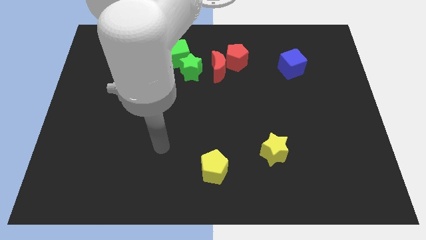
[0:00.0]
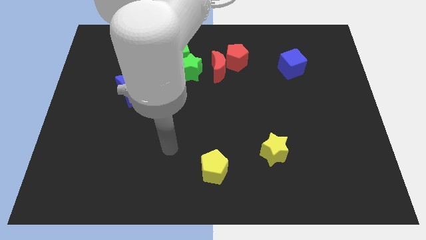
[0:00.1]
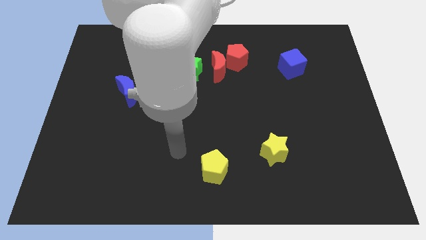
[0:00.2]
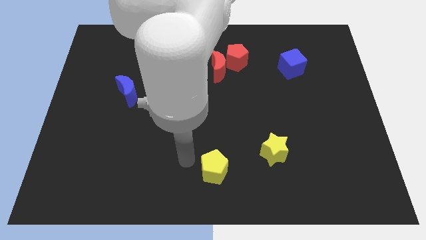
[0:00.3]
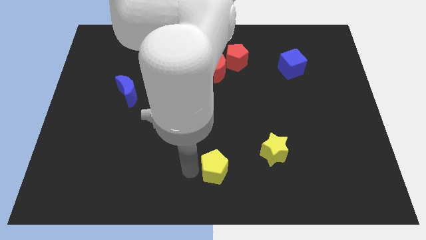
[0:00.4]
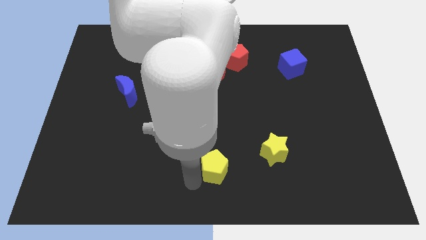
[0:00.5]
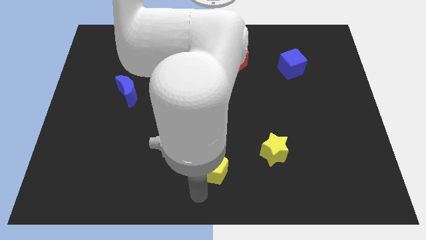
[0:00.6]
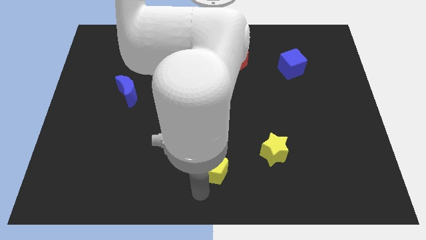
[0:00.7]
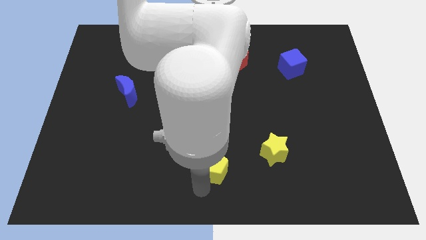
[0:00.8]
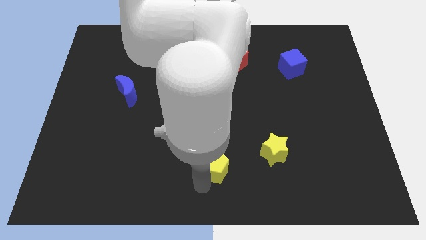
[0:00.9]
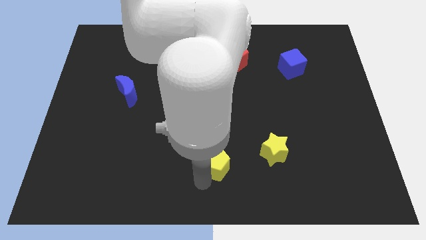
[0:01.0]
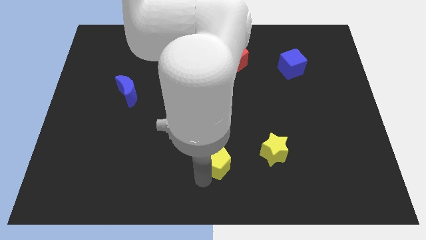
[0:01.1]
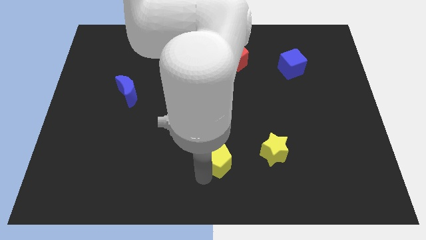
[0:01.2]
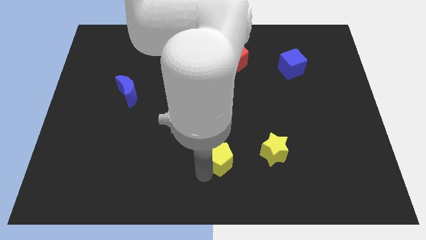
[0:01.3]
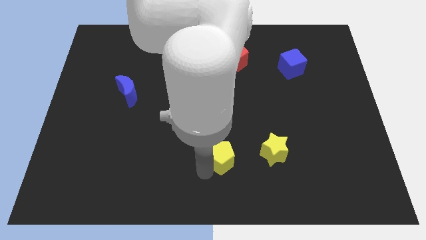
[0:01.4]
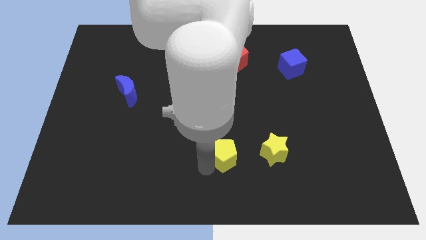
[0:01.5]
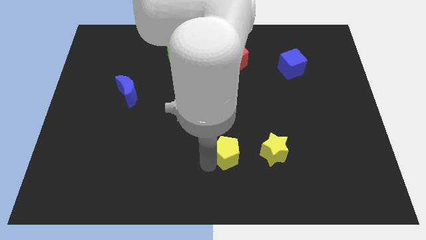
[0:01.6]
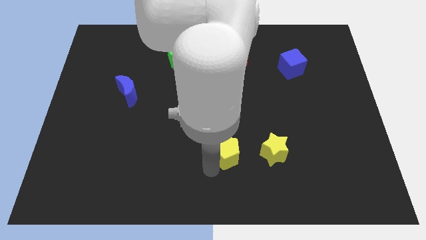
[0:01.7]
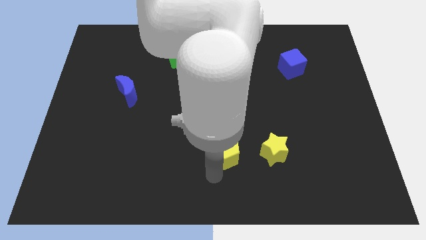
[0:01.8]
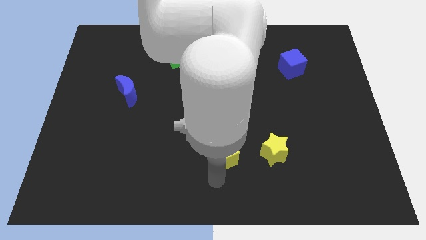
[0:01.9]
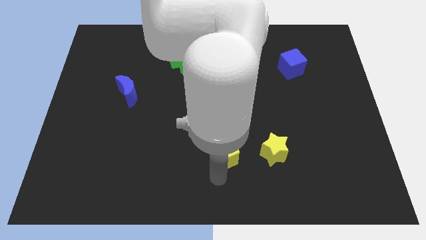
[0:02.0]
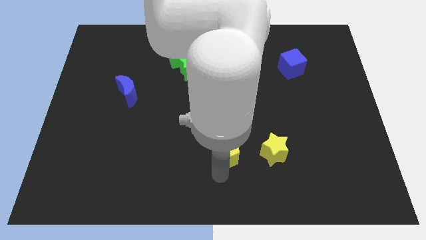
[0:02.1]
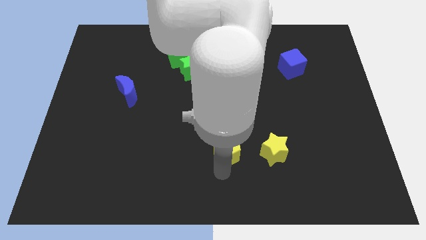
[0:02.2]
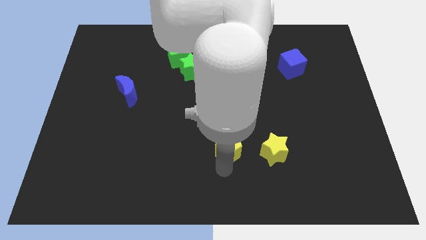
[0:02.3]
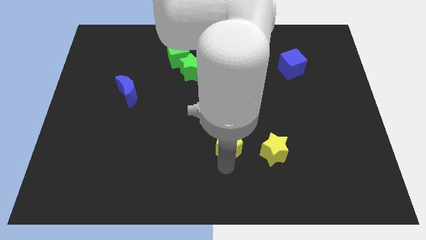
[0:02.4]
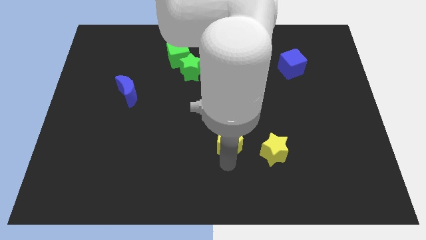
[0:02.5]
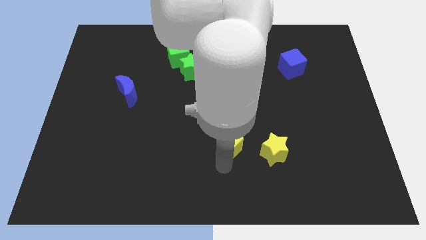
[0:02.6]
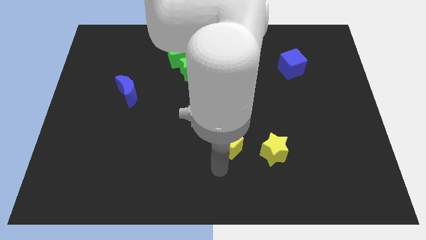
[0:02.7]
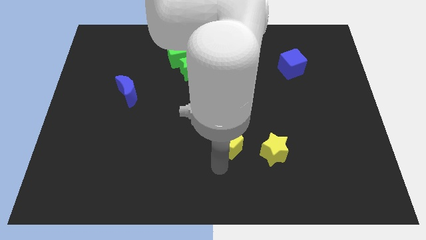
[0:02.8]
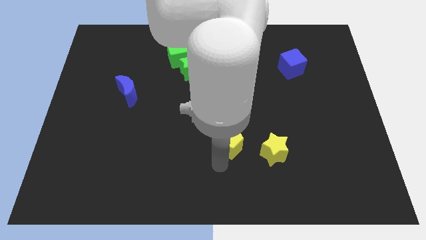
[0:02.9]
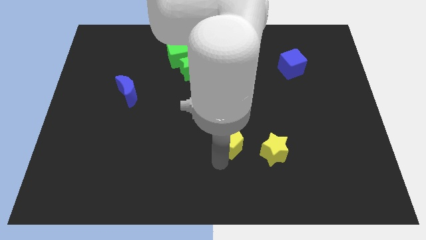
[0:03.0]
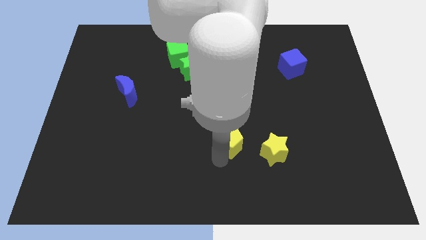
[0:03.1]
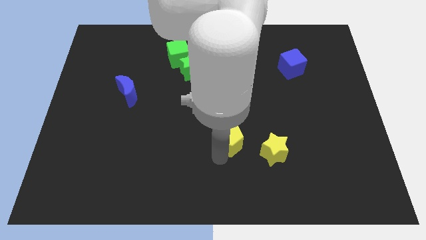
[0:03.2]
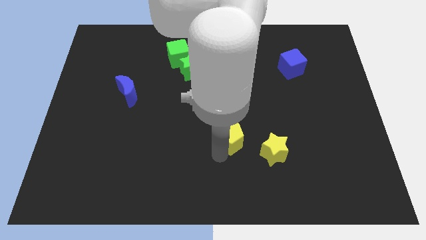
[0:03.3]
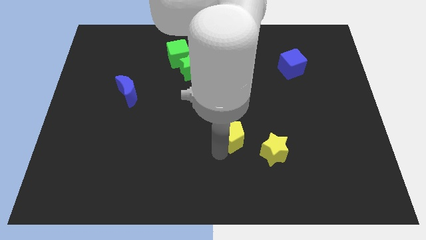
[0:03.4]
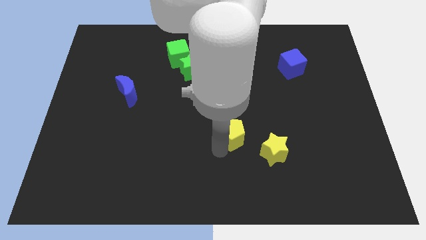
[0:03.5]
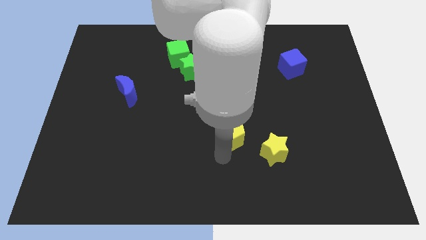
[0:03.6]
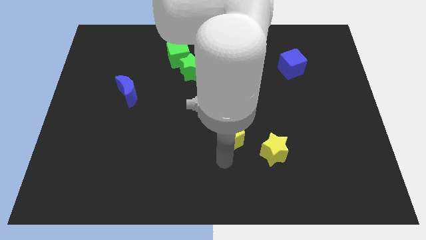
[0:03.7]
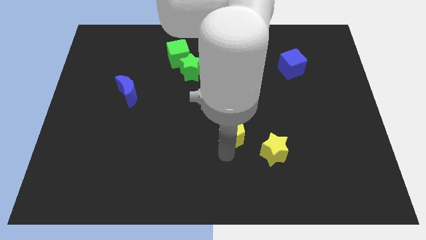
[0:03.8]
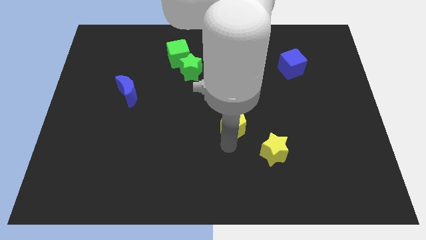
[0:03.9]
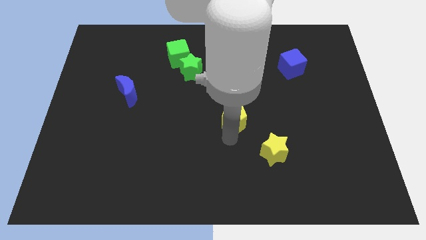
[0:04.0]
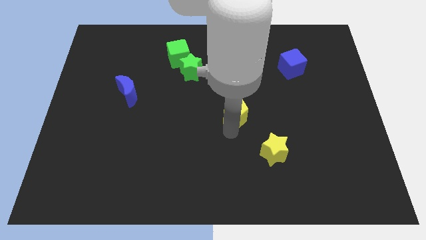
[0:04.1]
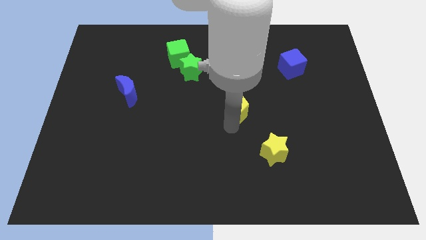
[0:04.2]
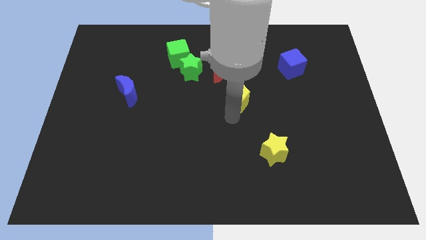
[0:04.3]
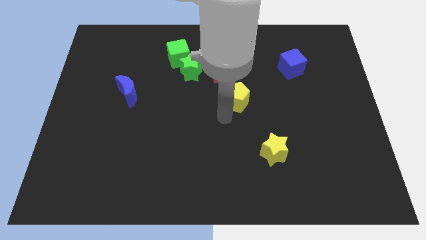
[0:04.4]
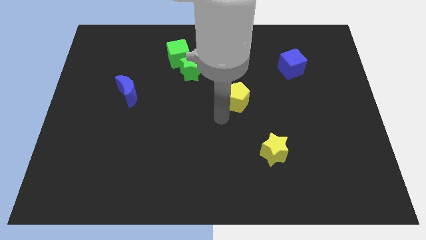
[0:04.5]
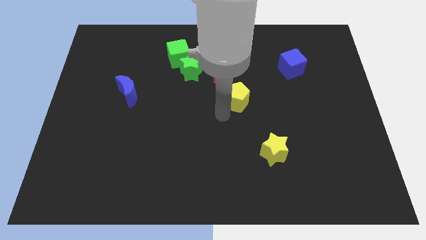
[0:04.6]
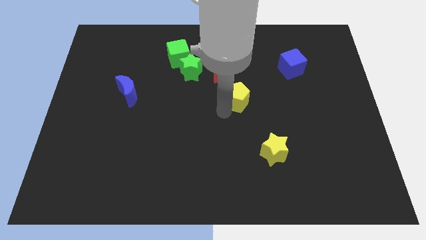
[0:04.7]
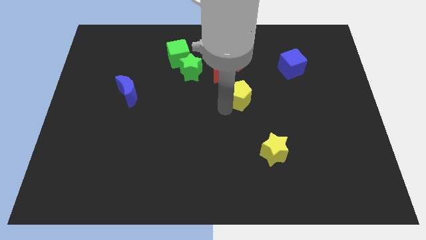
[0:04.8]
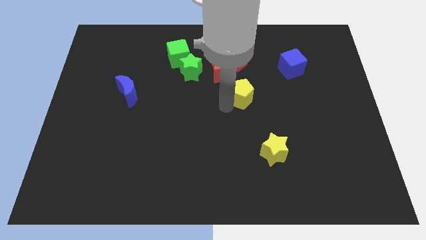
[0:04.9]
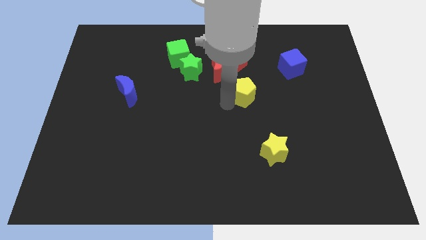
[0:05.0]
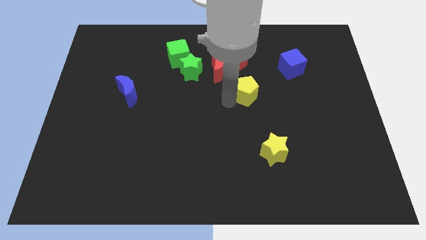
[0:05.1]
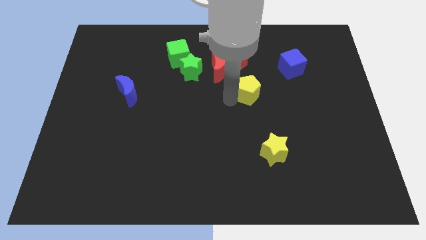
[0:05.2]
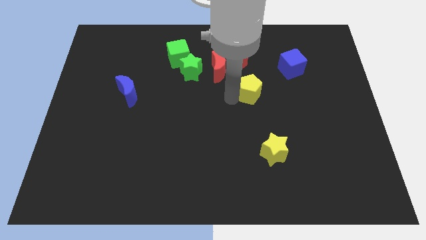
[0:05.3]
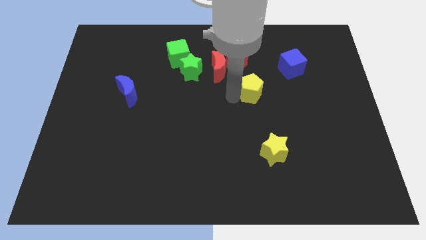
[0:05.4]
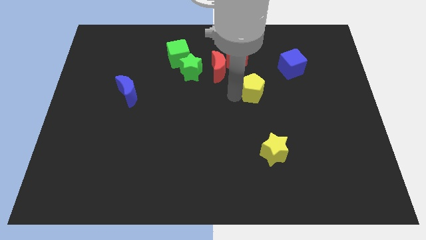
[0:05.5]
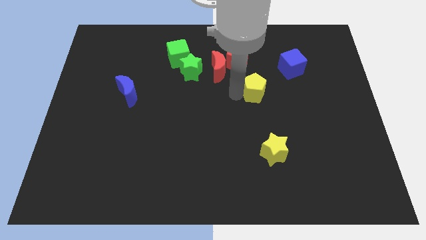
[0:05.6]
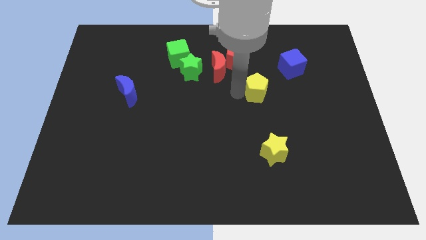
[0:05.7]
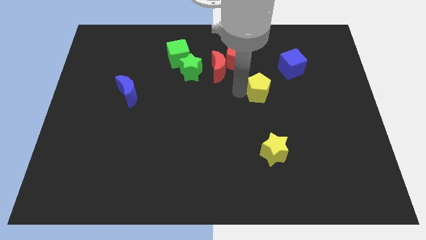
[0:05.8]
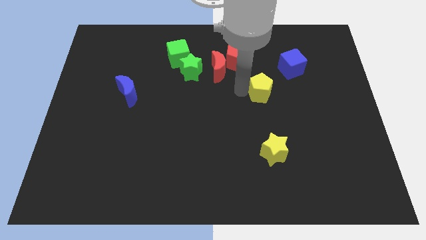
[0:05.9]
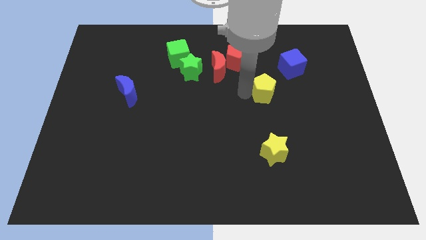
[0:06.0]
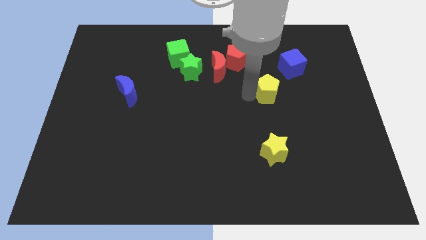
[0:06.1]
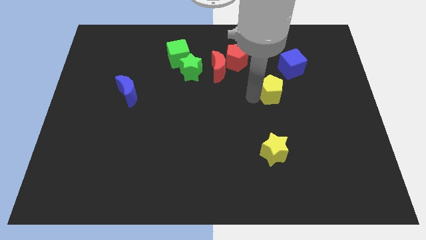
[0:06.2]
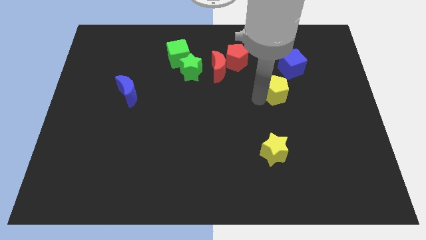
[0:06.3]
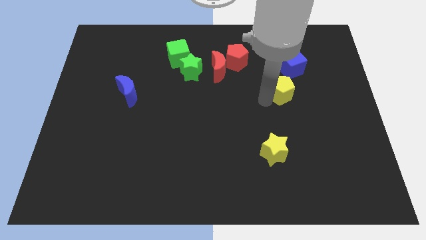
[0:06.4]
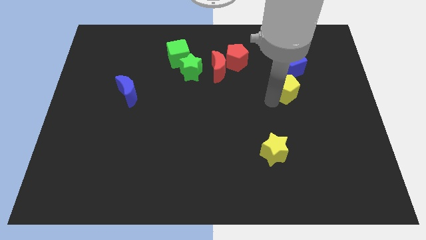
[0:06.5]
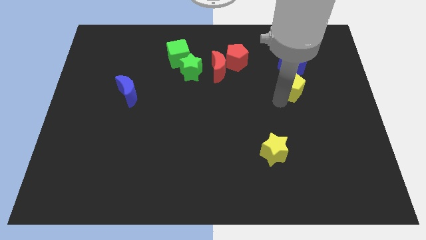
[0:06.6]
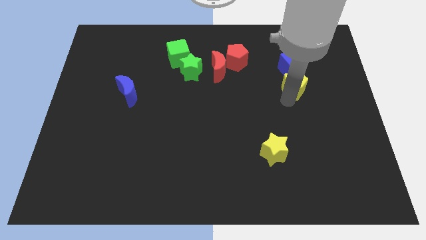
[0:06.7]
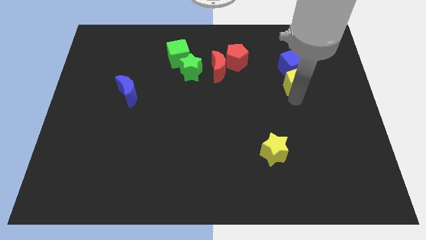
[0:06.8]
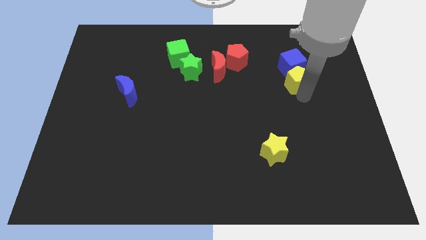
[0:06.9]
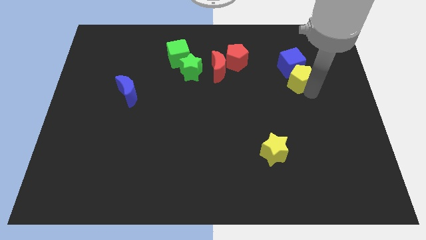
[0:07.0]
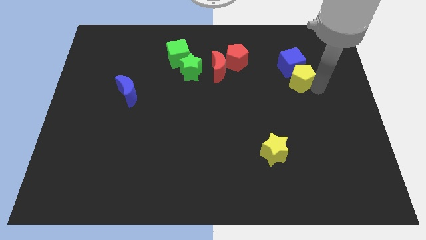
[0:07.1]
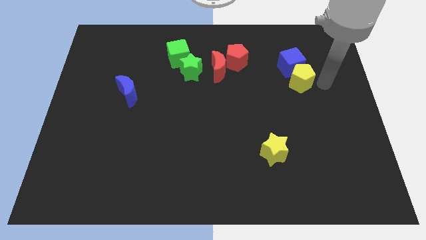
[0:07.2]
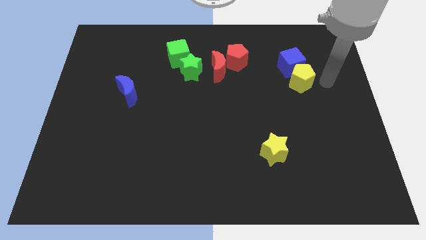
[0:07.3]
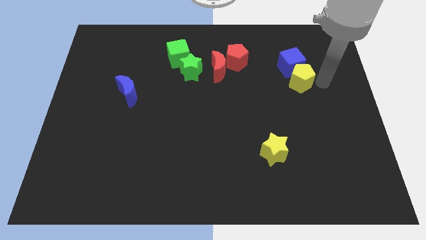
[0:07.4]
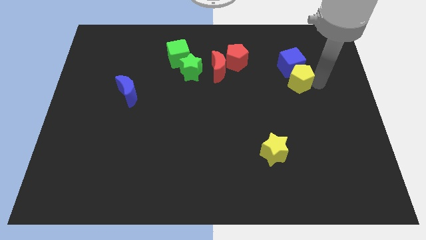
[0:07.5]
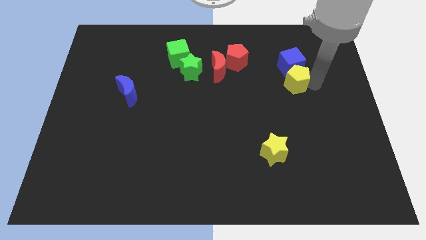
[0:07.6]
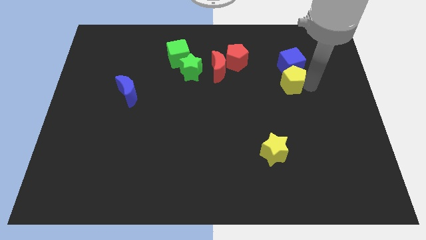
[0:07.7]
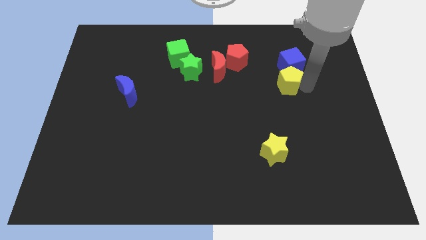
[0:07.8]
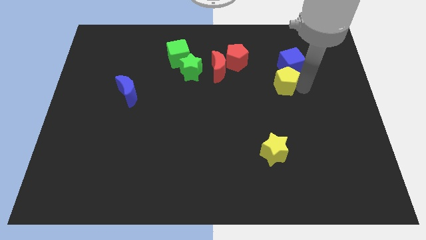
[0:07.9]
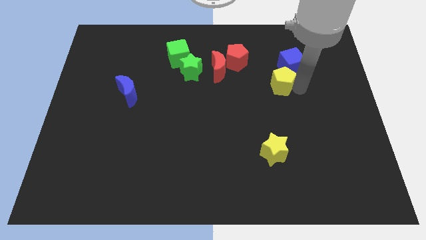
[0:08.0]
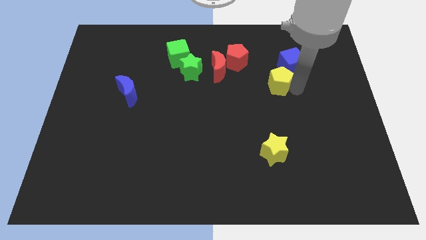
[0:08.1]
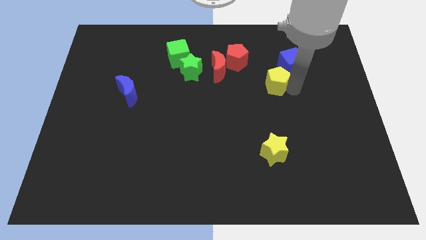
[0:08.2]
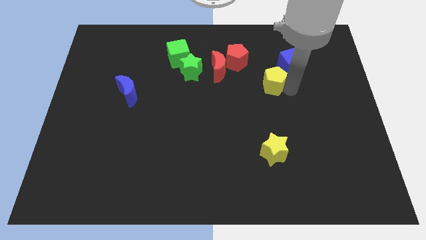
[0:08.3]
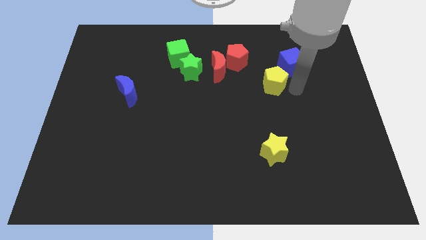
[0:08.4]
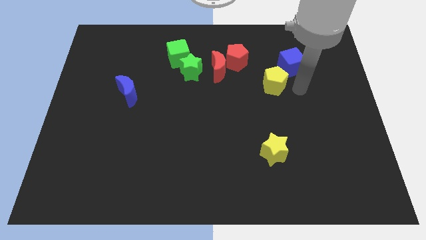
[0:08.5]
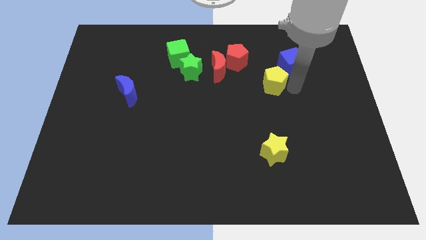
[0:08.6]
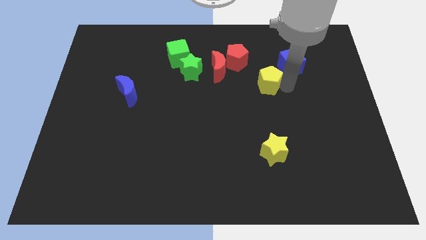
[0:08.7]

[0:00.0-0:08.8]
move the yellow pentagon just right of the red moon
